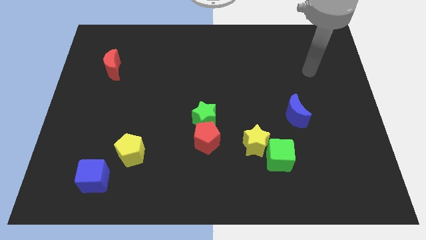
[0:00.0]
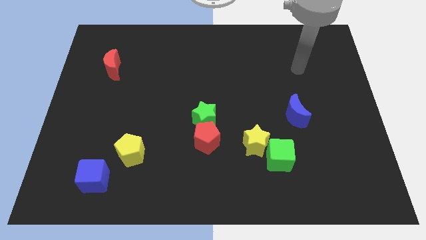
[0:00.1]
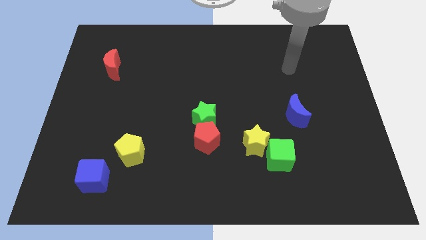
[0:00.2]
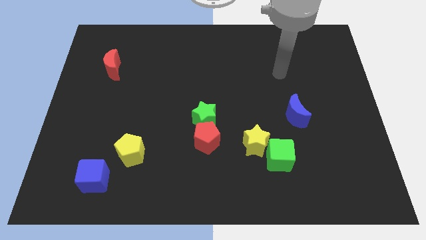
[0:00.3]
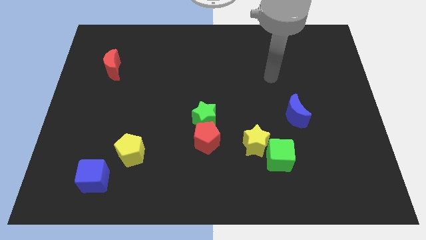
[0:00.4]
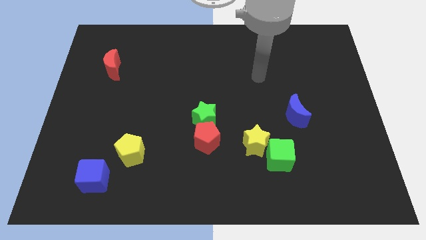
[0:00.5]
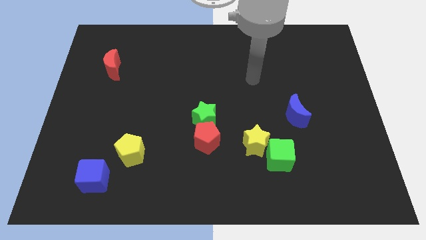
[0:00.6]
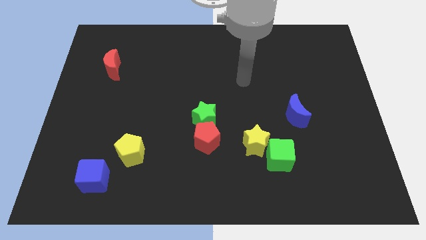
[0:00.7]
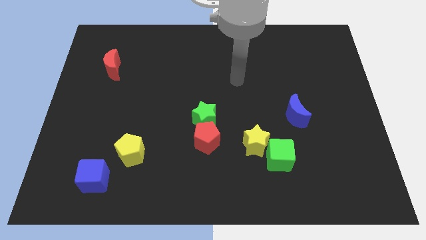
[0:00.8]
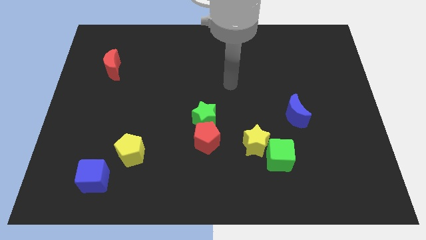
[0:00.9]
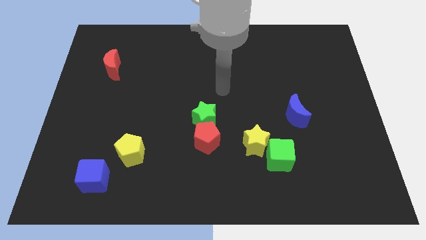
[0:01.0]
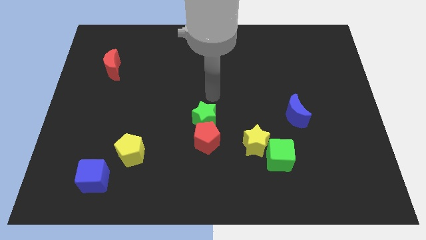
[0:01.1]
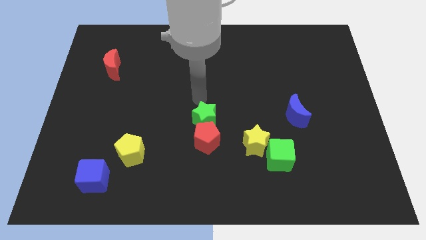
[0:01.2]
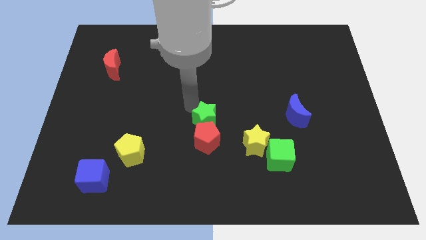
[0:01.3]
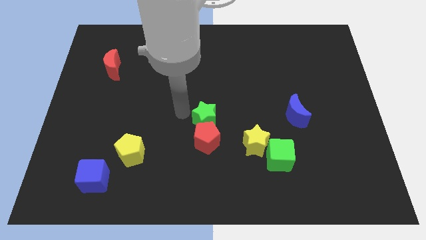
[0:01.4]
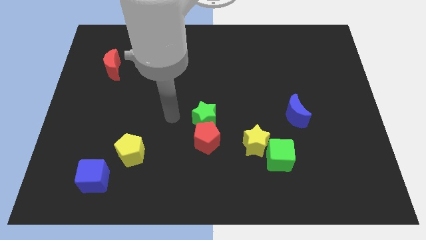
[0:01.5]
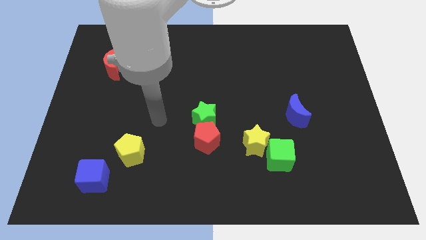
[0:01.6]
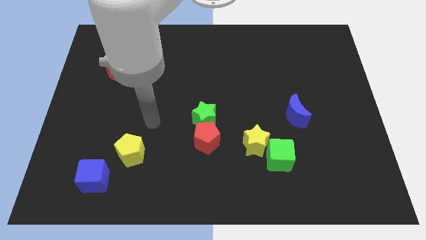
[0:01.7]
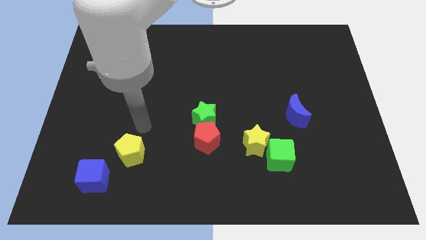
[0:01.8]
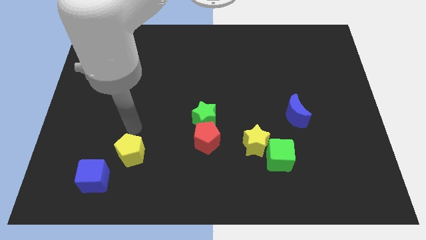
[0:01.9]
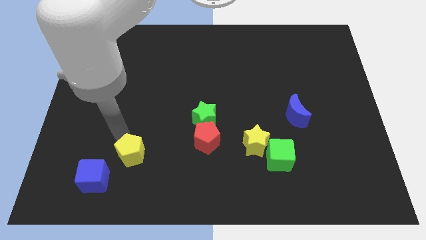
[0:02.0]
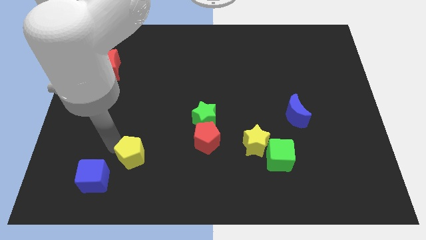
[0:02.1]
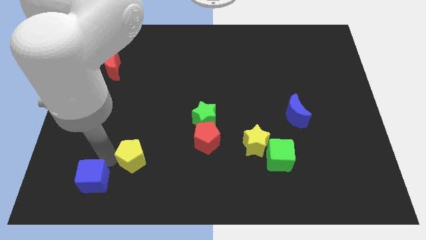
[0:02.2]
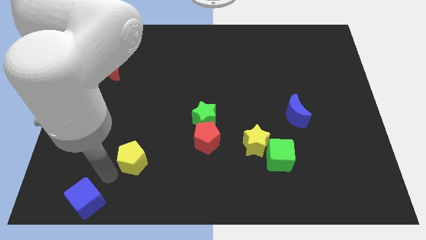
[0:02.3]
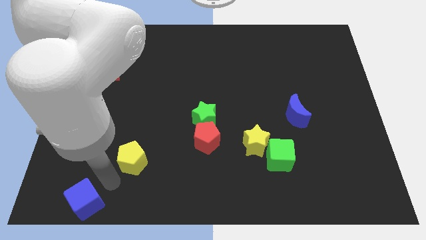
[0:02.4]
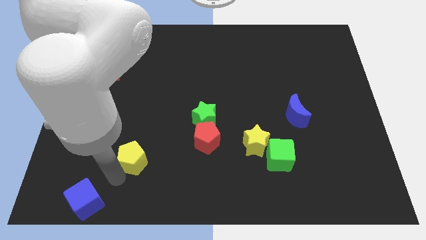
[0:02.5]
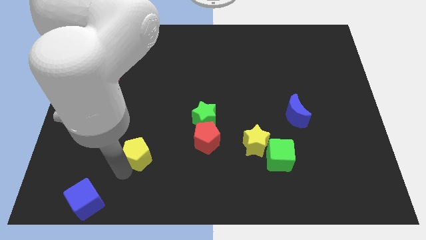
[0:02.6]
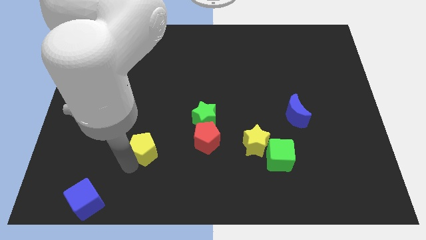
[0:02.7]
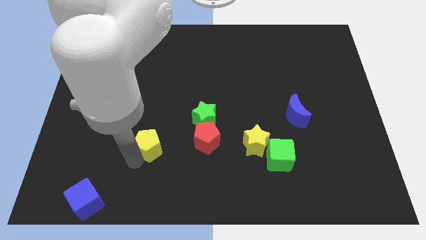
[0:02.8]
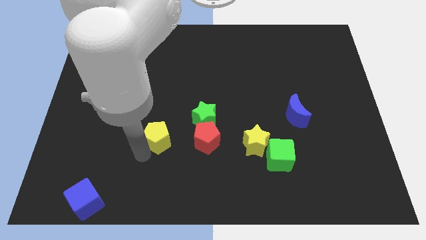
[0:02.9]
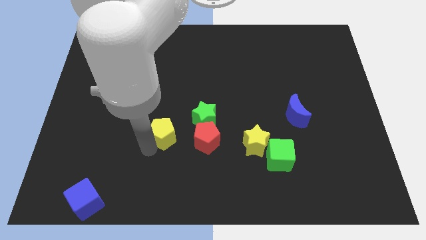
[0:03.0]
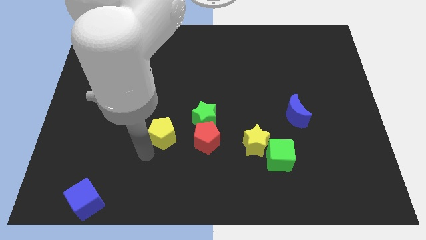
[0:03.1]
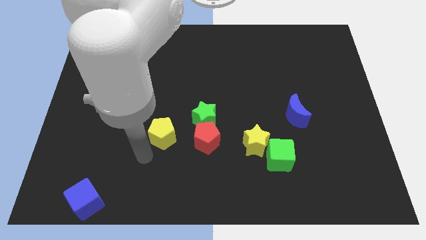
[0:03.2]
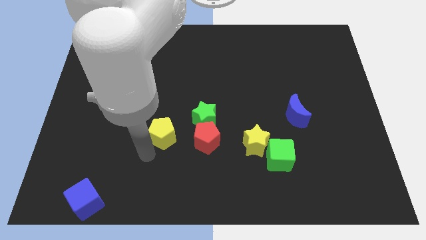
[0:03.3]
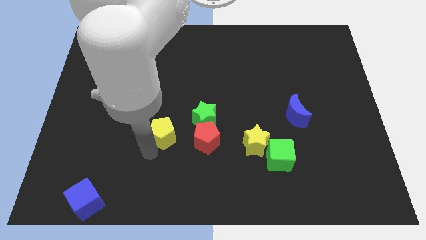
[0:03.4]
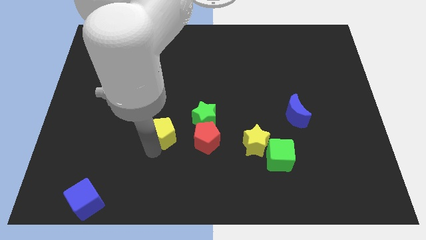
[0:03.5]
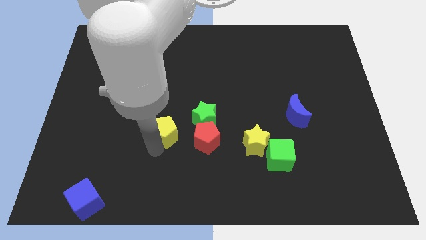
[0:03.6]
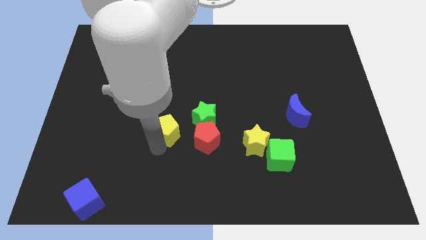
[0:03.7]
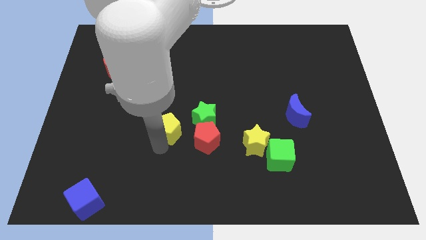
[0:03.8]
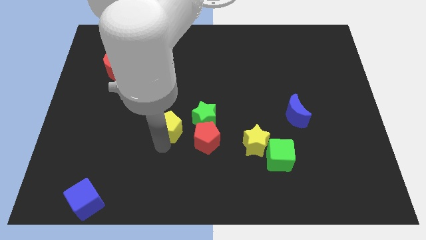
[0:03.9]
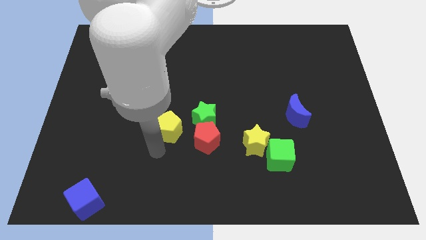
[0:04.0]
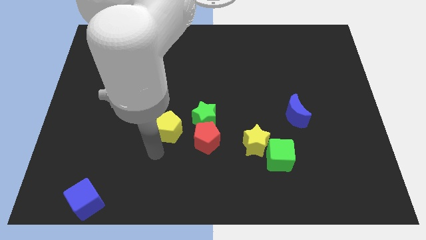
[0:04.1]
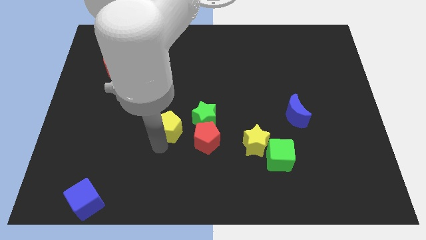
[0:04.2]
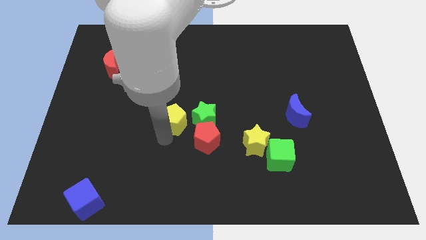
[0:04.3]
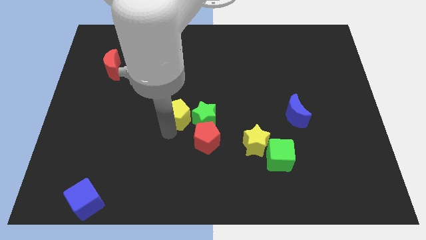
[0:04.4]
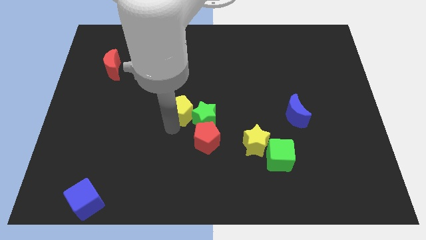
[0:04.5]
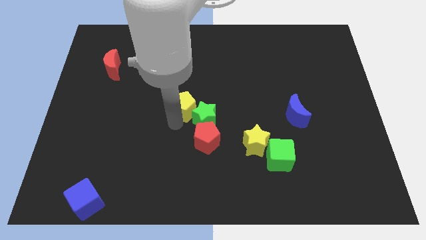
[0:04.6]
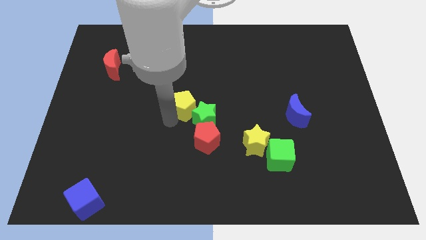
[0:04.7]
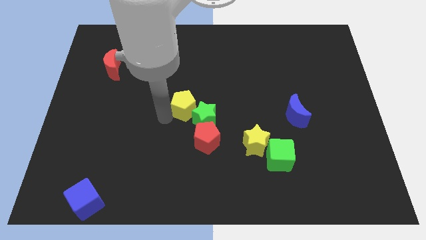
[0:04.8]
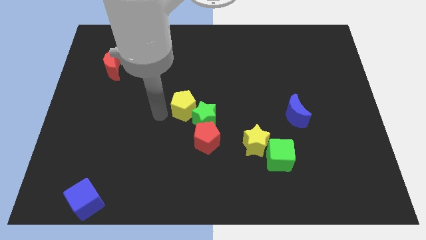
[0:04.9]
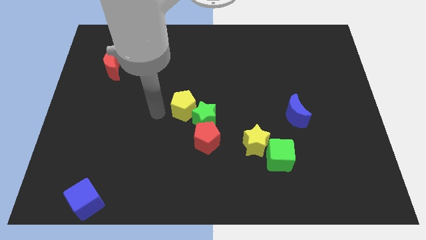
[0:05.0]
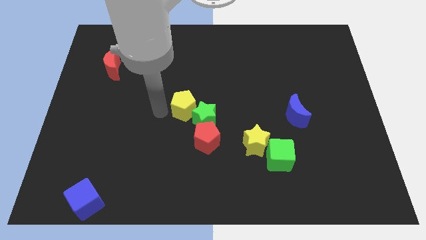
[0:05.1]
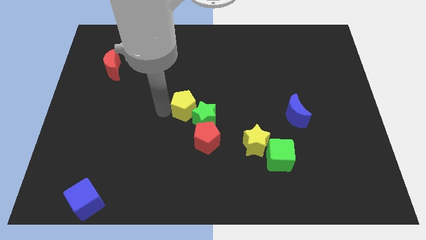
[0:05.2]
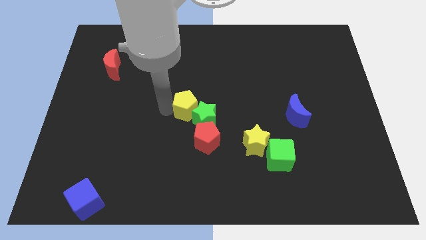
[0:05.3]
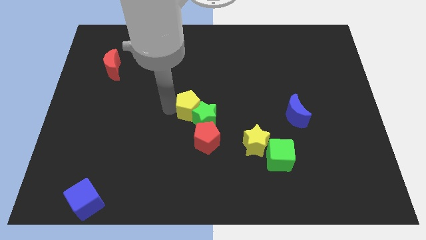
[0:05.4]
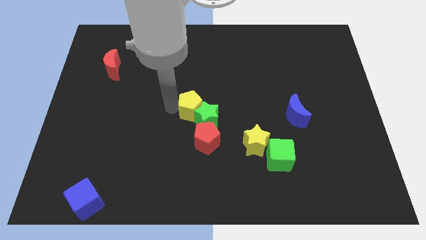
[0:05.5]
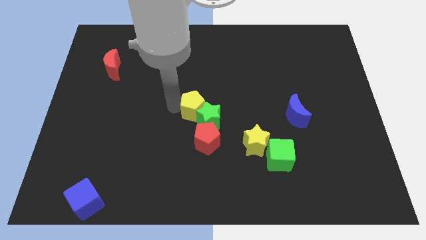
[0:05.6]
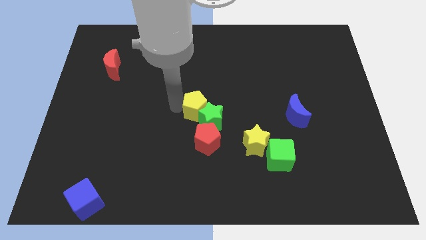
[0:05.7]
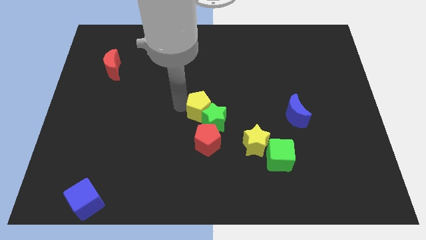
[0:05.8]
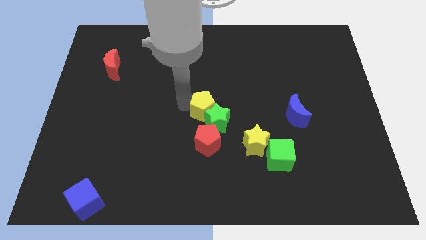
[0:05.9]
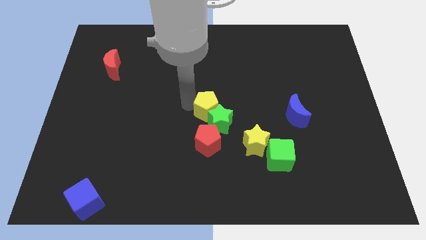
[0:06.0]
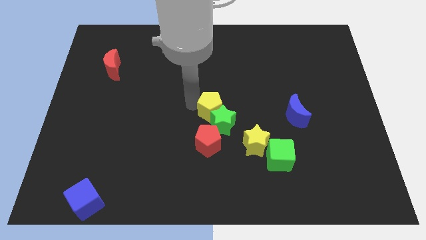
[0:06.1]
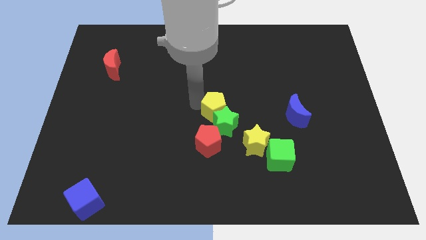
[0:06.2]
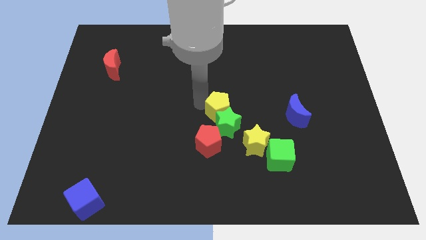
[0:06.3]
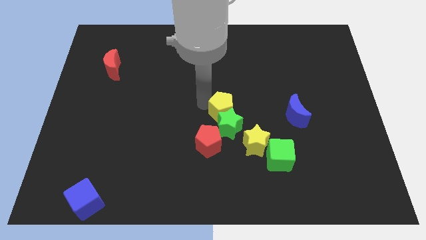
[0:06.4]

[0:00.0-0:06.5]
slide the yellow pentagon diagonally up and to the right of the green star

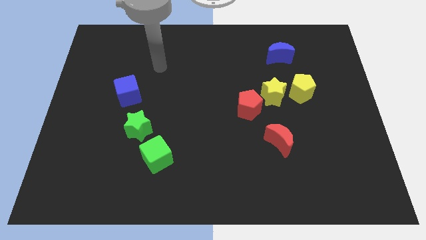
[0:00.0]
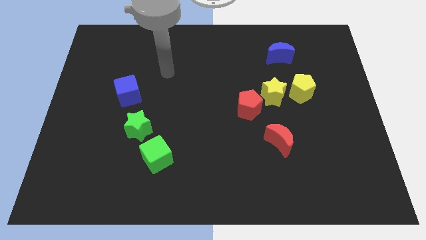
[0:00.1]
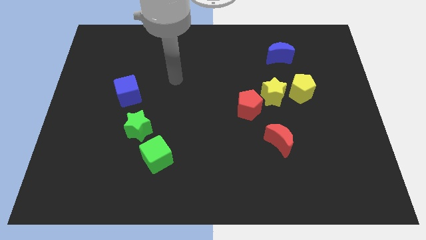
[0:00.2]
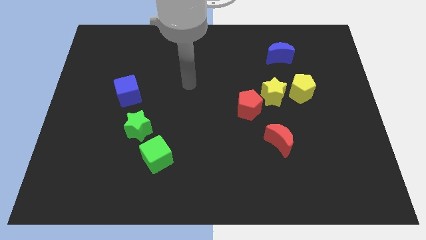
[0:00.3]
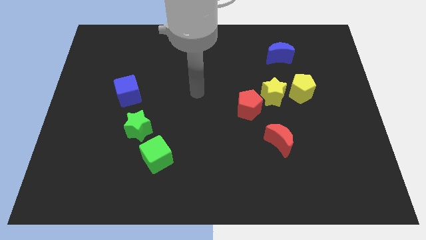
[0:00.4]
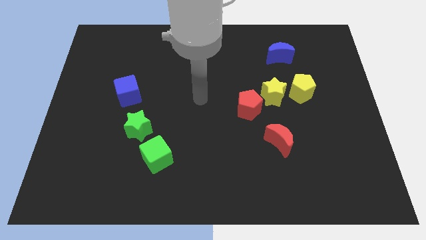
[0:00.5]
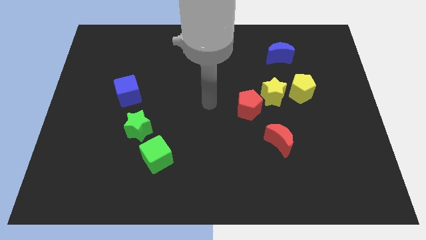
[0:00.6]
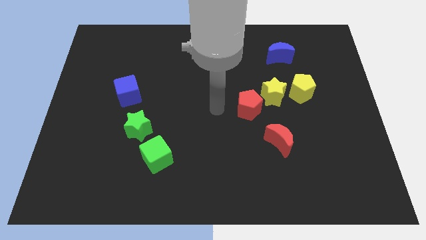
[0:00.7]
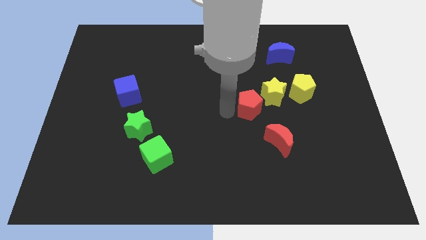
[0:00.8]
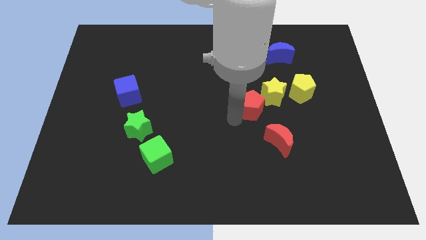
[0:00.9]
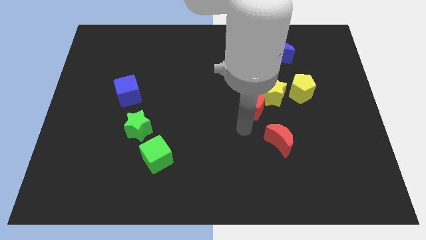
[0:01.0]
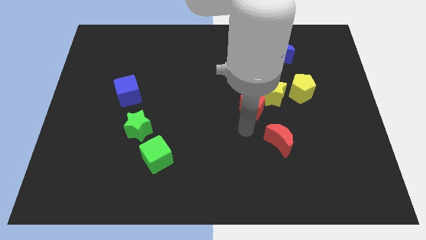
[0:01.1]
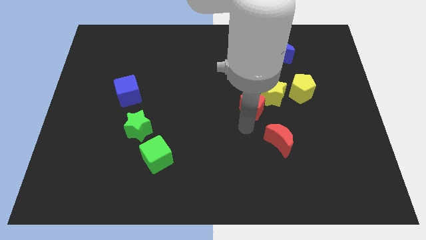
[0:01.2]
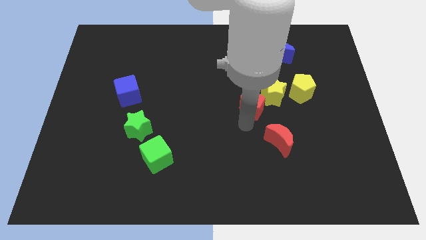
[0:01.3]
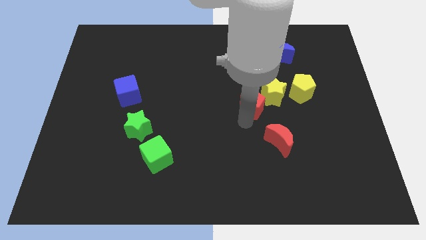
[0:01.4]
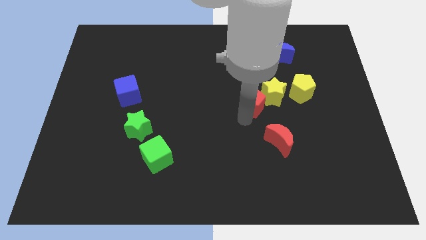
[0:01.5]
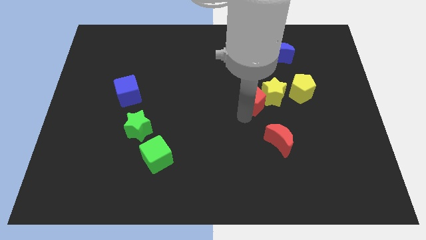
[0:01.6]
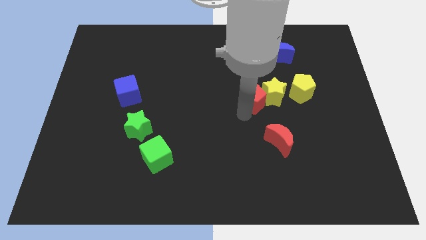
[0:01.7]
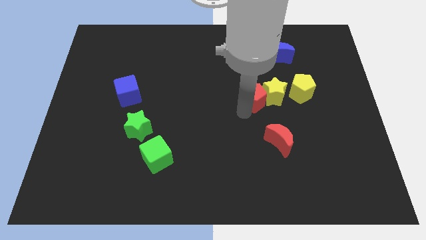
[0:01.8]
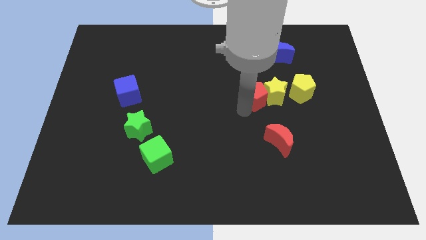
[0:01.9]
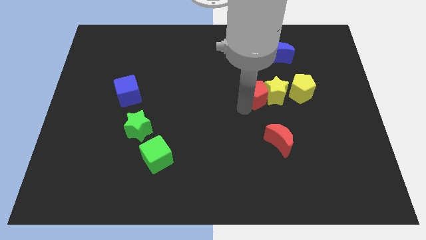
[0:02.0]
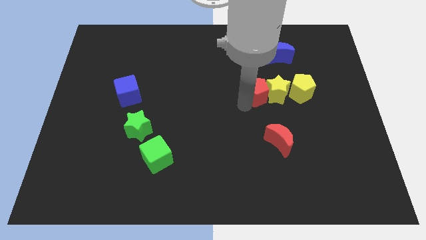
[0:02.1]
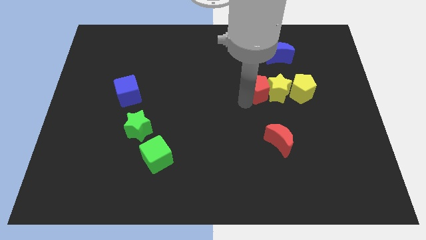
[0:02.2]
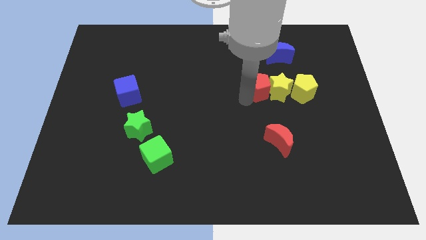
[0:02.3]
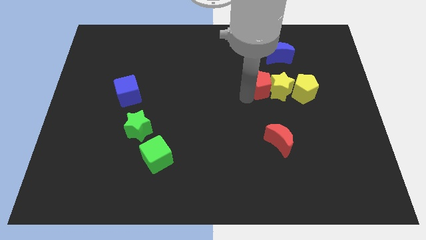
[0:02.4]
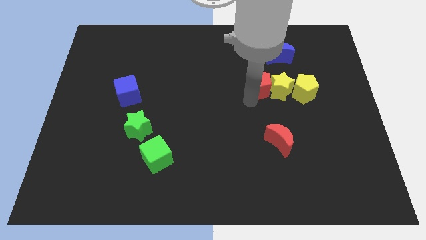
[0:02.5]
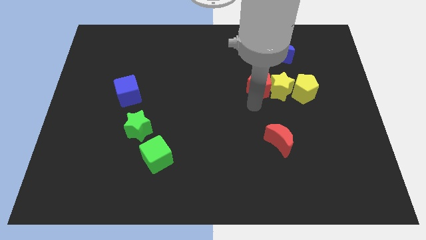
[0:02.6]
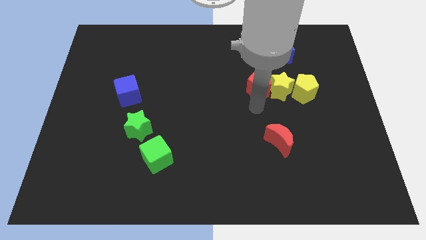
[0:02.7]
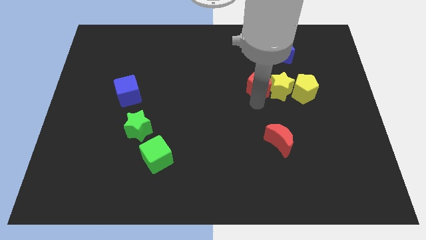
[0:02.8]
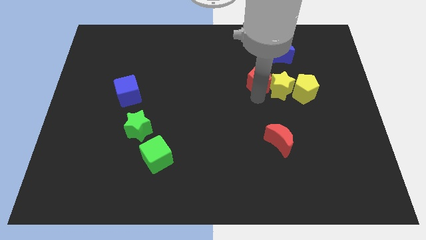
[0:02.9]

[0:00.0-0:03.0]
push the red pentagon to the bottom left side of the blue moon
